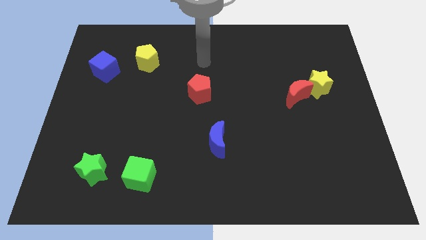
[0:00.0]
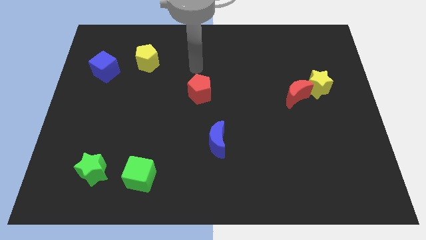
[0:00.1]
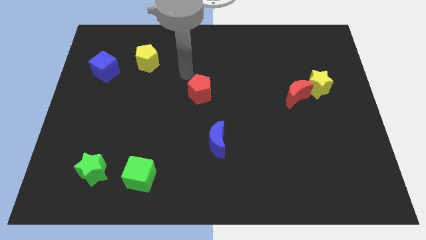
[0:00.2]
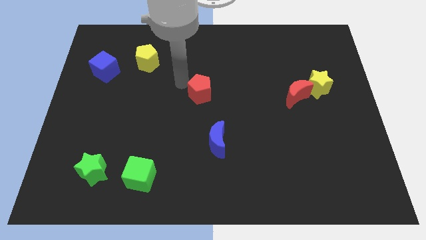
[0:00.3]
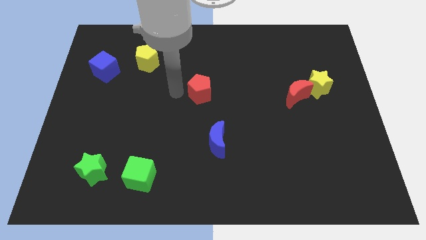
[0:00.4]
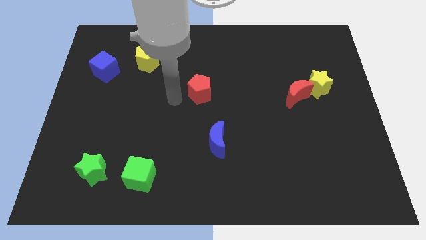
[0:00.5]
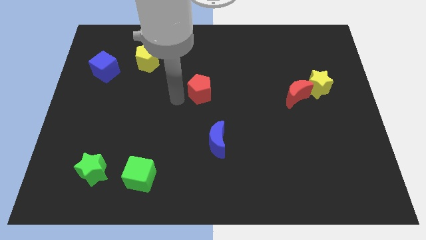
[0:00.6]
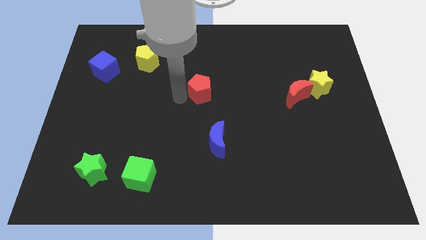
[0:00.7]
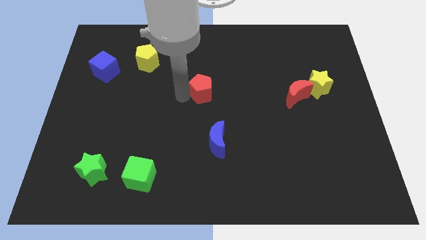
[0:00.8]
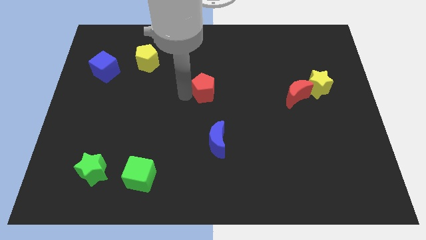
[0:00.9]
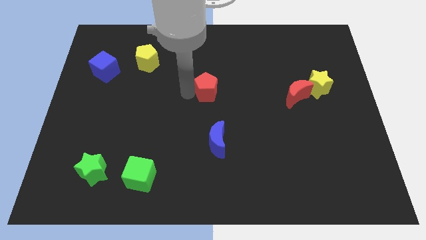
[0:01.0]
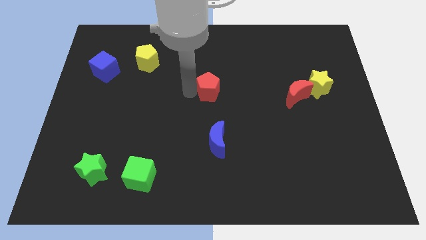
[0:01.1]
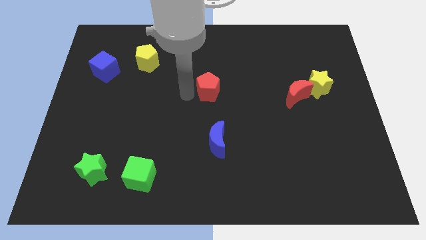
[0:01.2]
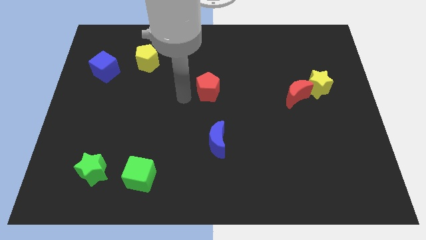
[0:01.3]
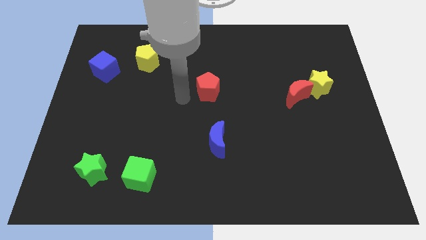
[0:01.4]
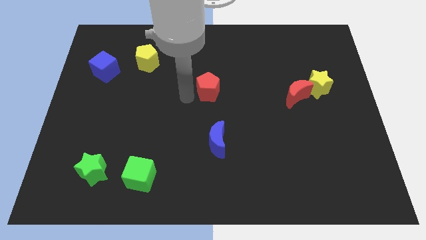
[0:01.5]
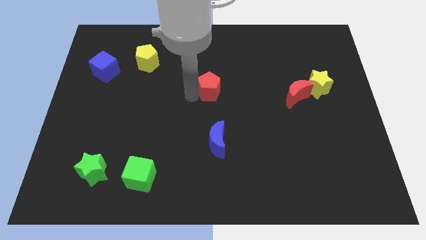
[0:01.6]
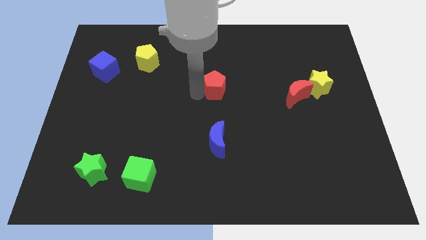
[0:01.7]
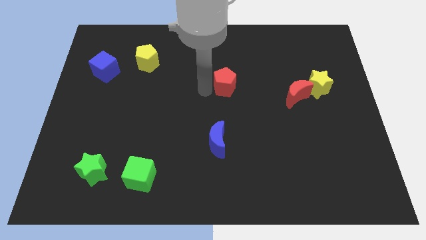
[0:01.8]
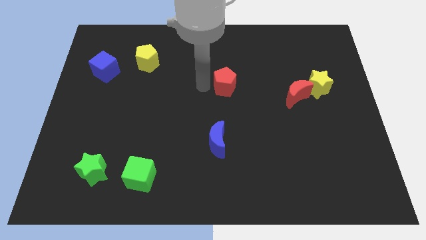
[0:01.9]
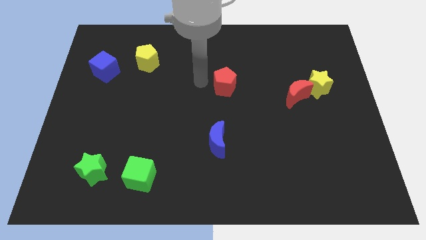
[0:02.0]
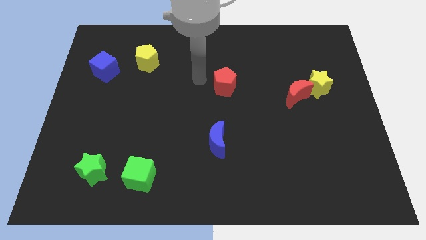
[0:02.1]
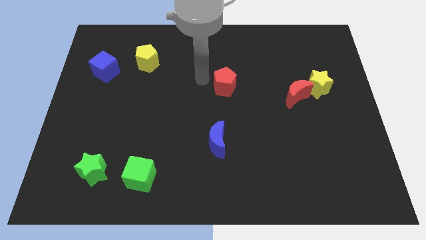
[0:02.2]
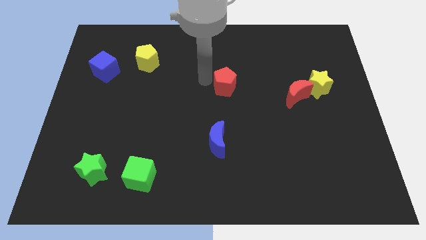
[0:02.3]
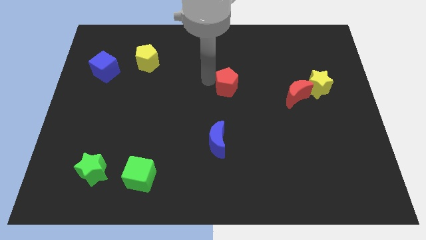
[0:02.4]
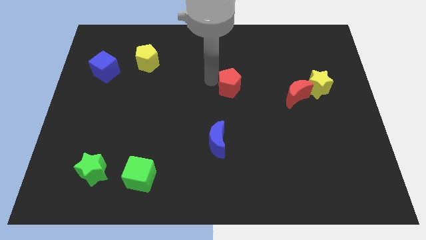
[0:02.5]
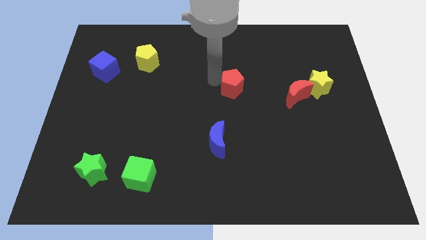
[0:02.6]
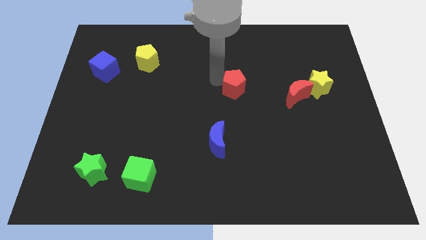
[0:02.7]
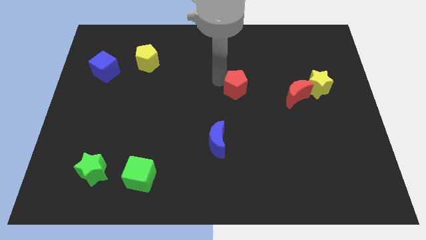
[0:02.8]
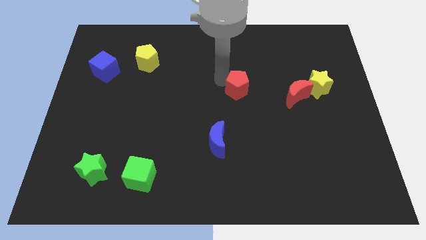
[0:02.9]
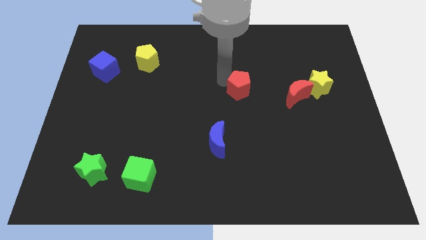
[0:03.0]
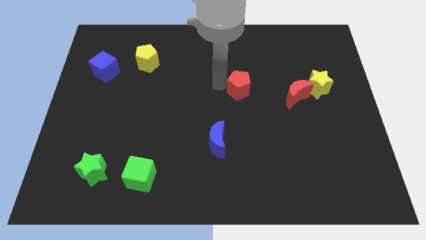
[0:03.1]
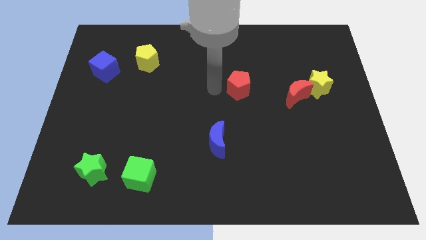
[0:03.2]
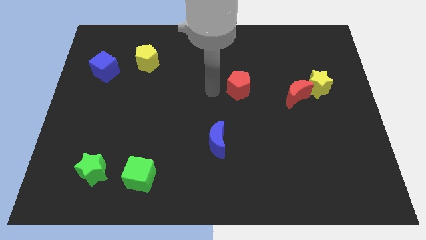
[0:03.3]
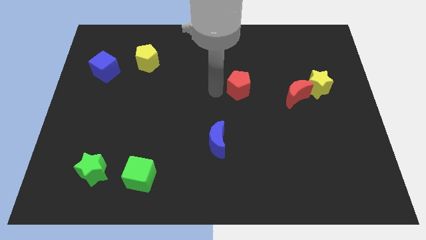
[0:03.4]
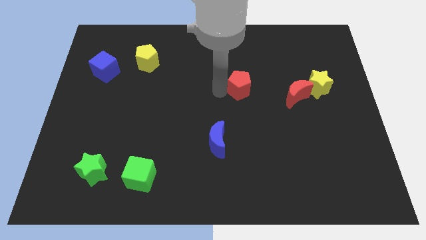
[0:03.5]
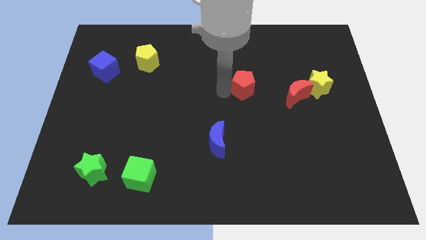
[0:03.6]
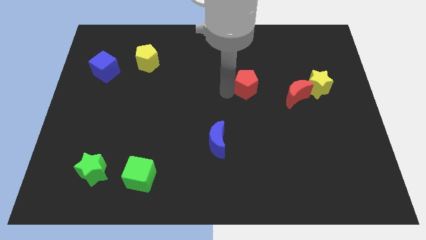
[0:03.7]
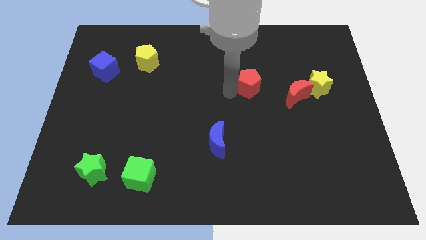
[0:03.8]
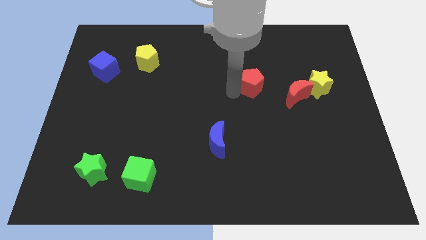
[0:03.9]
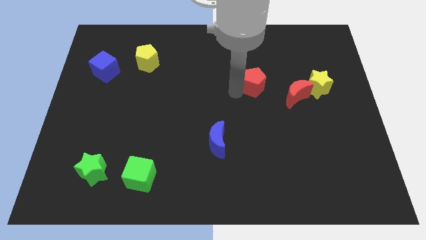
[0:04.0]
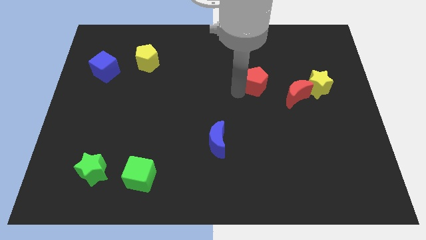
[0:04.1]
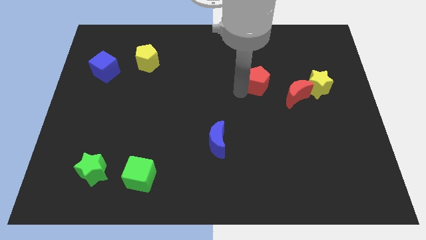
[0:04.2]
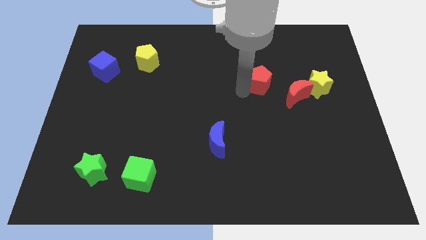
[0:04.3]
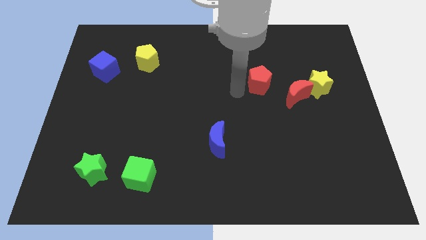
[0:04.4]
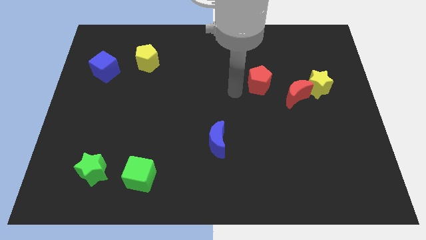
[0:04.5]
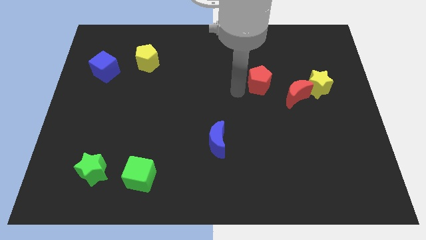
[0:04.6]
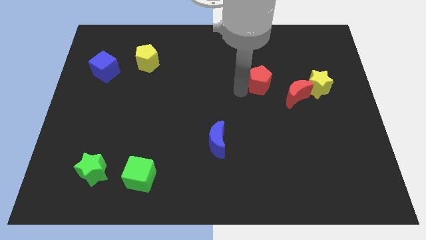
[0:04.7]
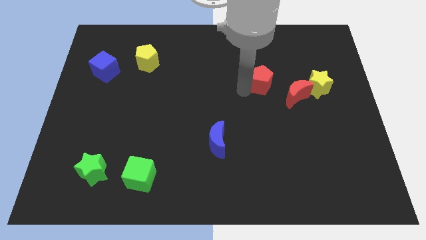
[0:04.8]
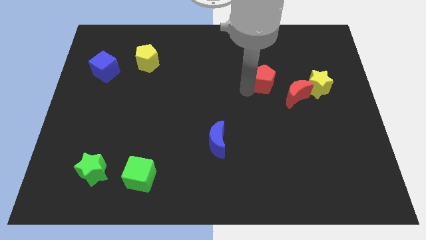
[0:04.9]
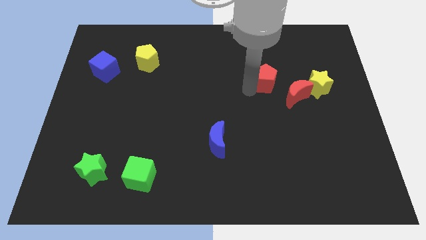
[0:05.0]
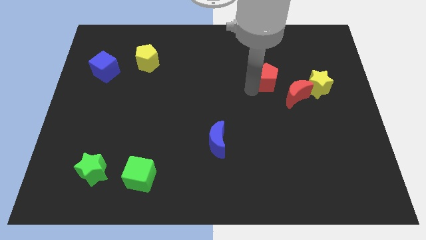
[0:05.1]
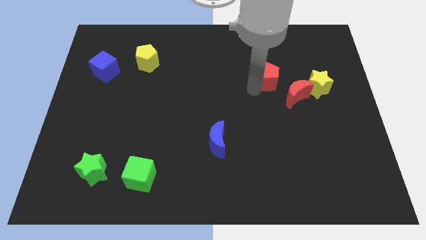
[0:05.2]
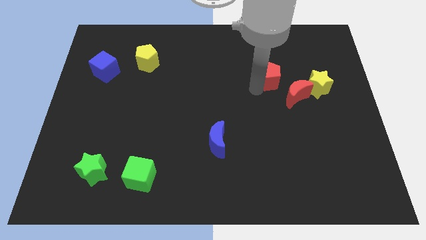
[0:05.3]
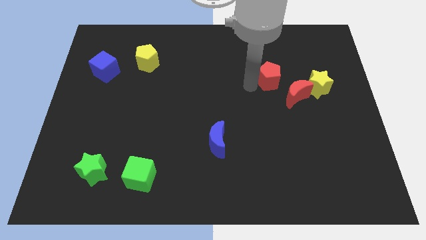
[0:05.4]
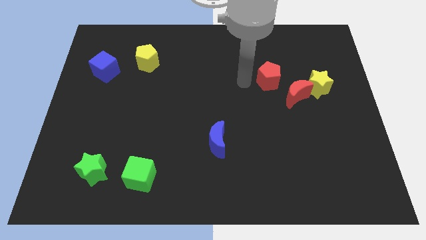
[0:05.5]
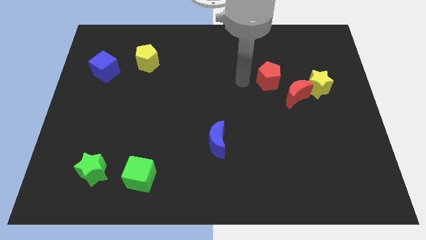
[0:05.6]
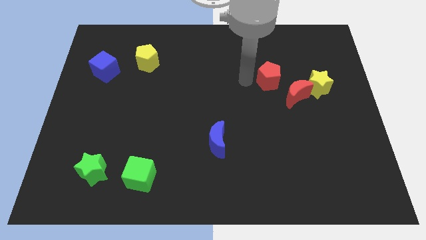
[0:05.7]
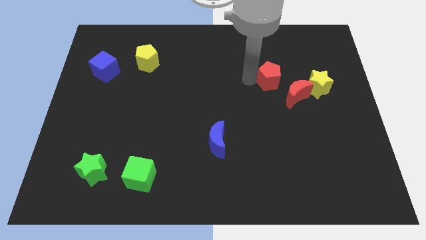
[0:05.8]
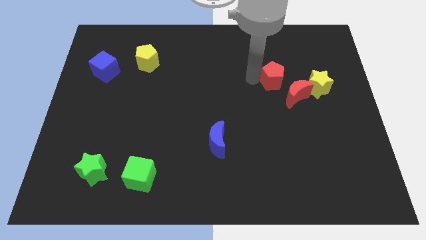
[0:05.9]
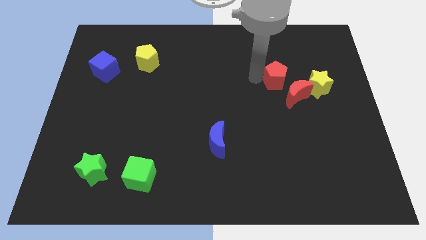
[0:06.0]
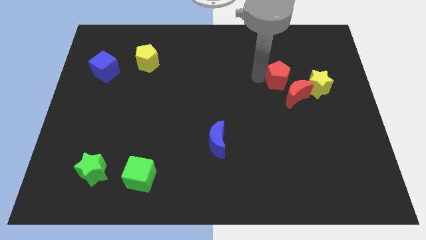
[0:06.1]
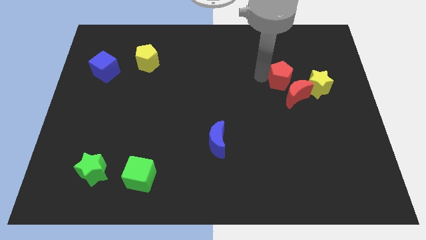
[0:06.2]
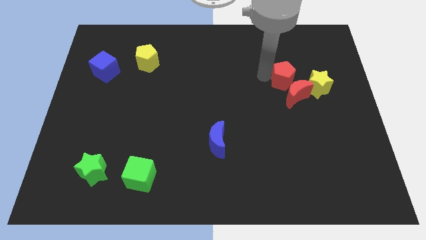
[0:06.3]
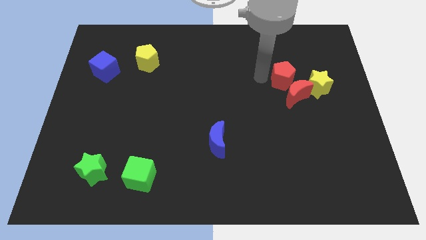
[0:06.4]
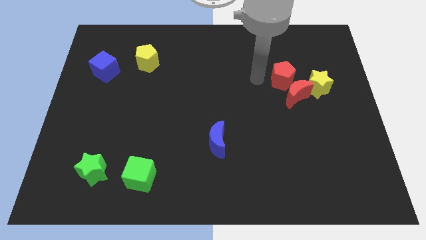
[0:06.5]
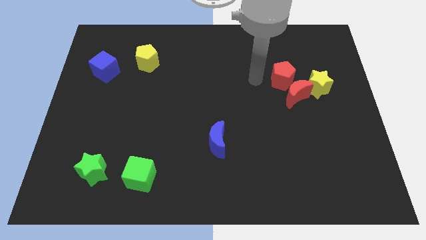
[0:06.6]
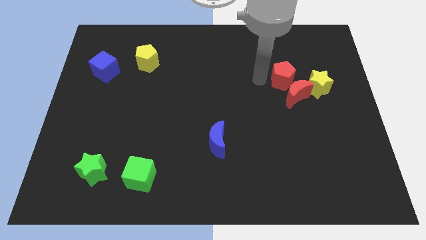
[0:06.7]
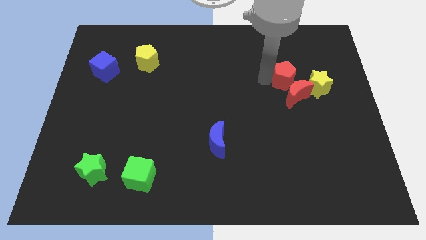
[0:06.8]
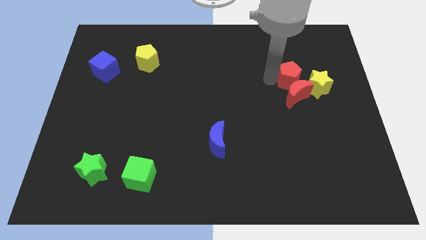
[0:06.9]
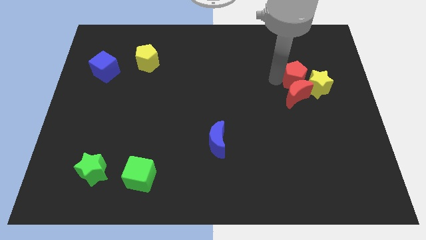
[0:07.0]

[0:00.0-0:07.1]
put the red pentagon towards the yellow star

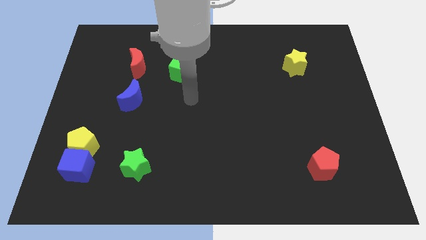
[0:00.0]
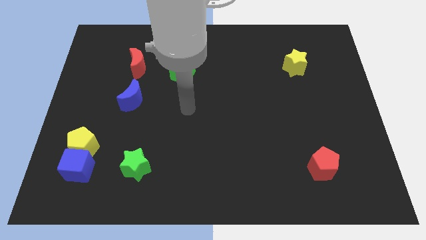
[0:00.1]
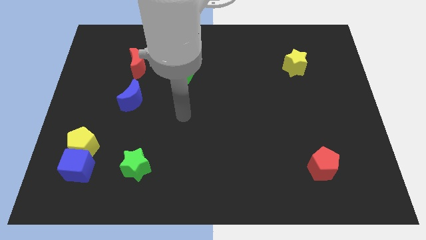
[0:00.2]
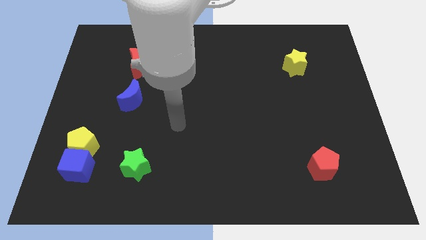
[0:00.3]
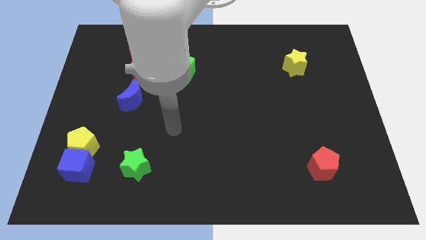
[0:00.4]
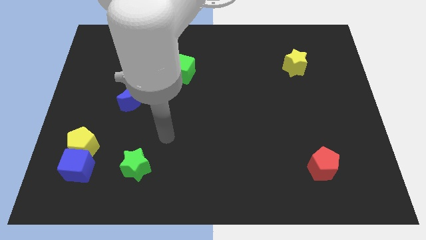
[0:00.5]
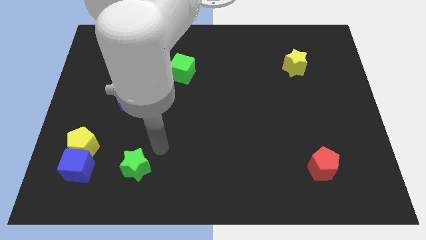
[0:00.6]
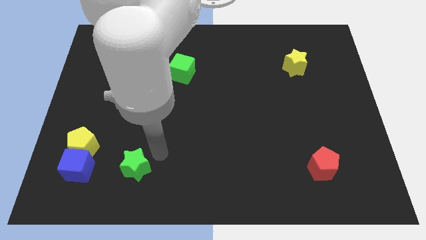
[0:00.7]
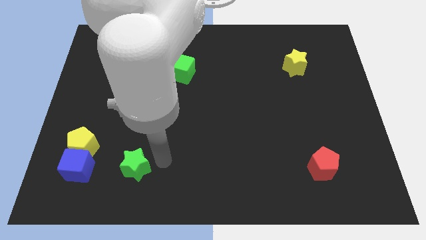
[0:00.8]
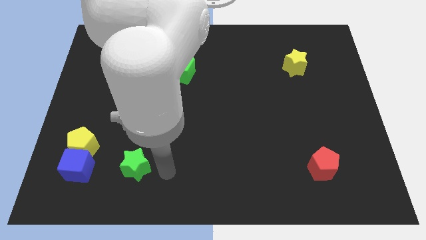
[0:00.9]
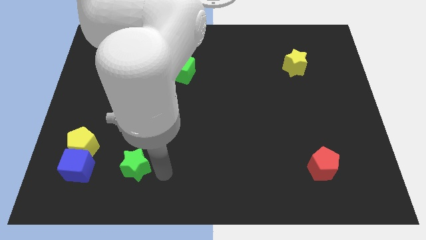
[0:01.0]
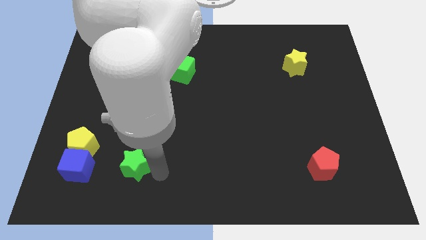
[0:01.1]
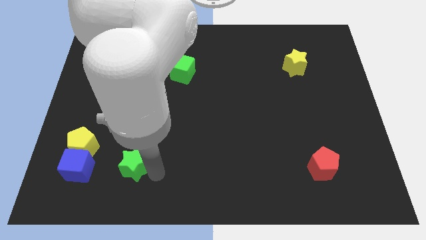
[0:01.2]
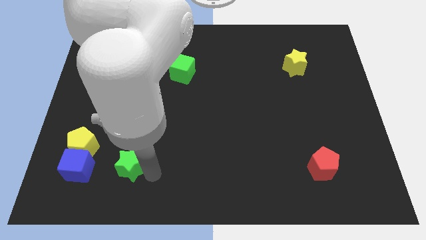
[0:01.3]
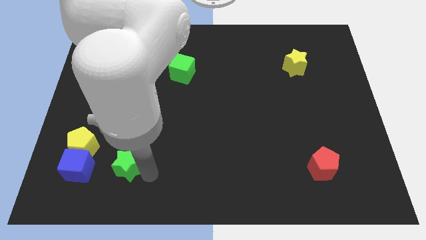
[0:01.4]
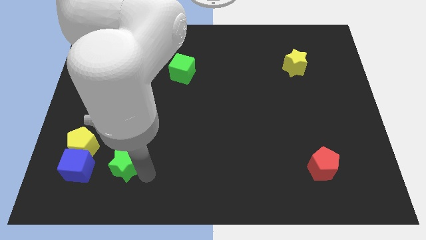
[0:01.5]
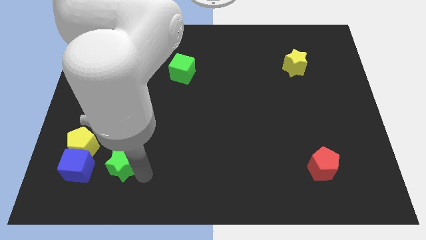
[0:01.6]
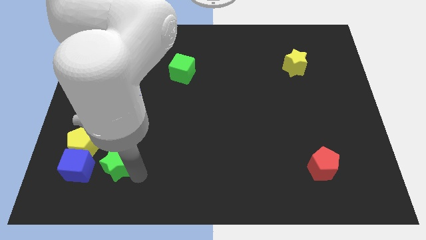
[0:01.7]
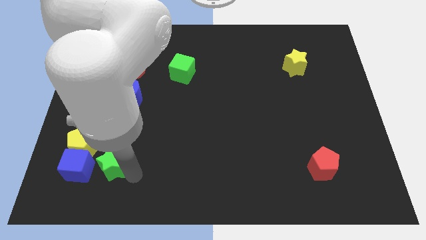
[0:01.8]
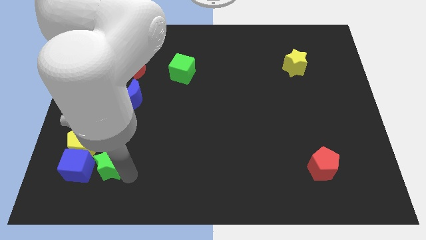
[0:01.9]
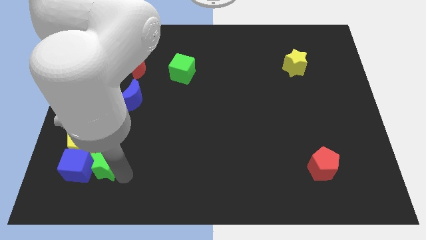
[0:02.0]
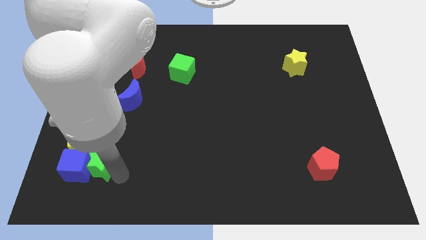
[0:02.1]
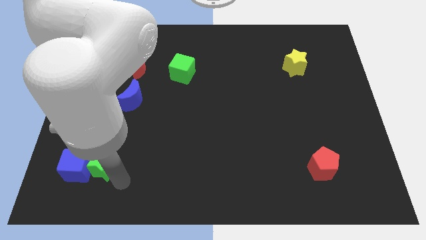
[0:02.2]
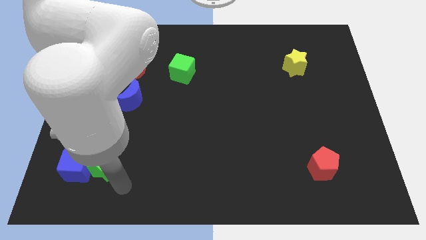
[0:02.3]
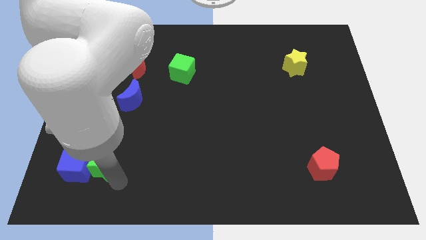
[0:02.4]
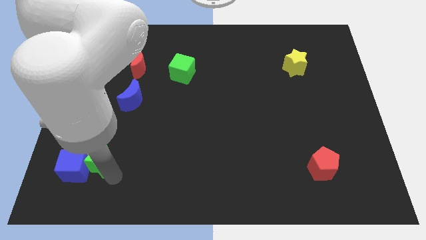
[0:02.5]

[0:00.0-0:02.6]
push the green star close to the yellow pentagon
